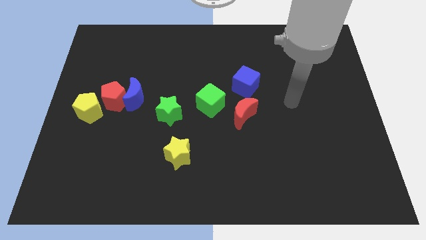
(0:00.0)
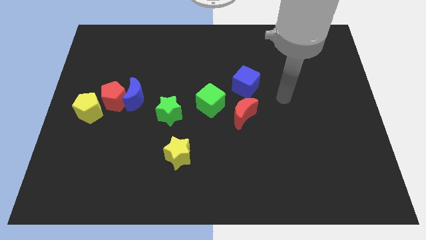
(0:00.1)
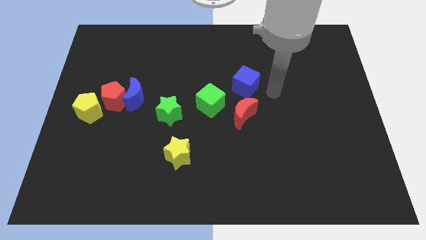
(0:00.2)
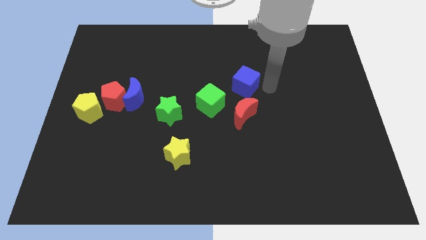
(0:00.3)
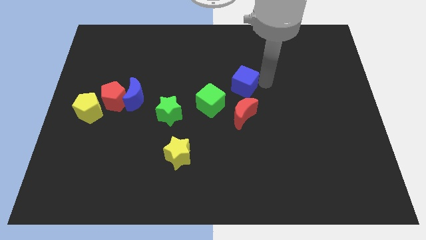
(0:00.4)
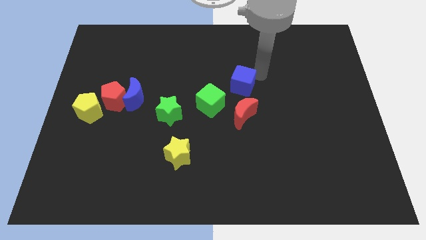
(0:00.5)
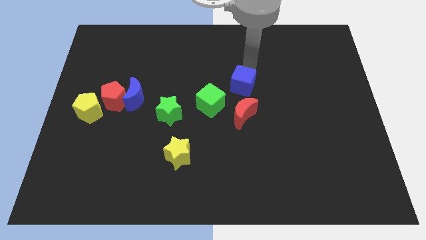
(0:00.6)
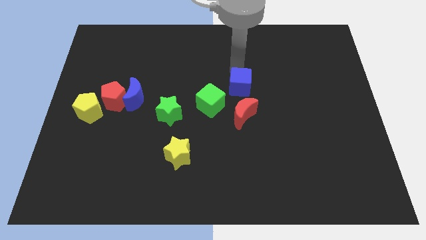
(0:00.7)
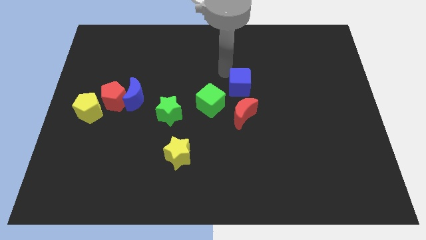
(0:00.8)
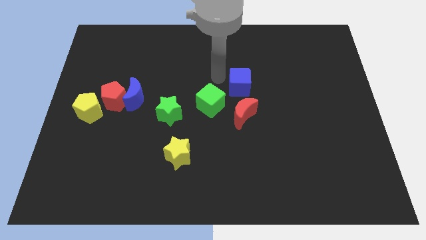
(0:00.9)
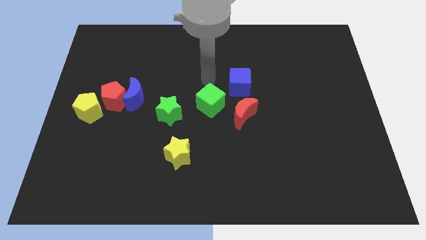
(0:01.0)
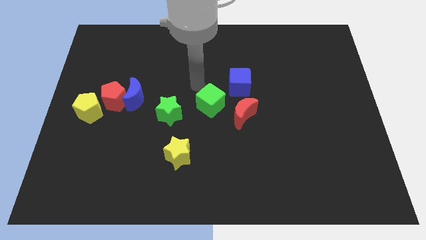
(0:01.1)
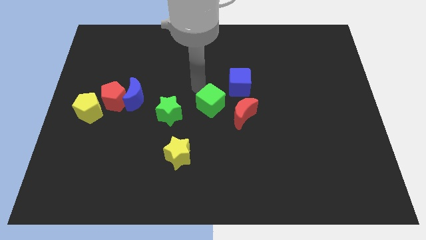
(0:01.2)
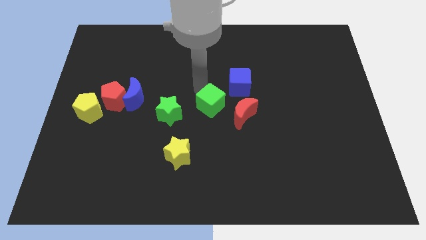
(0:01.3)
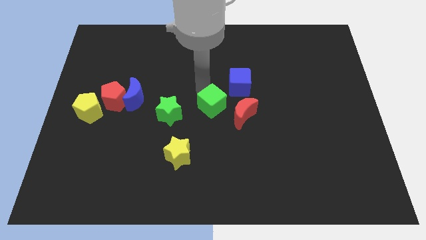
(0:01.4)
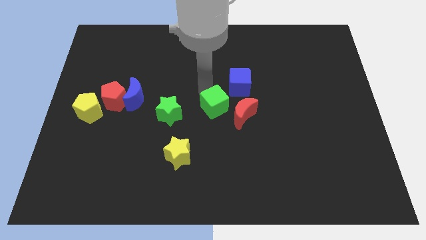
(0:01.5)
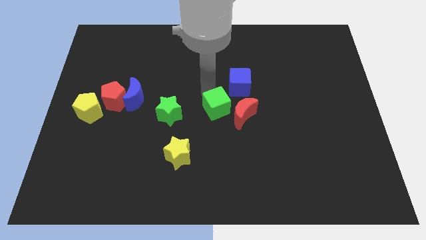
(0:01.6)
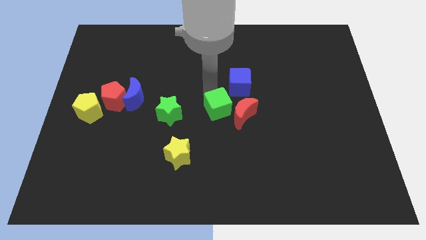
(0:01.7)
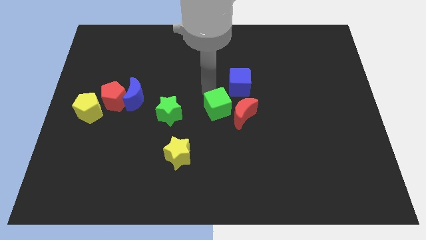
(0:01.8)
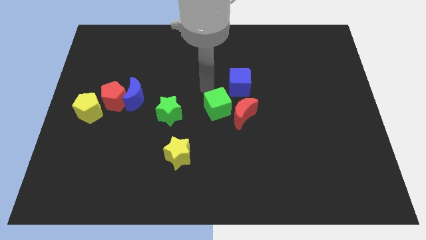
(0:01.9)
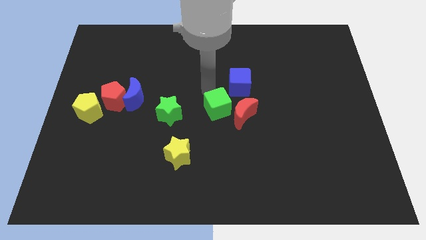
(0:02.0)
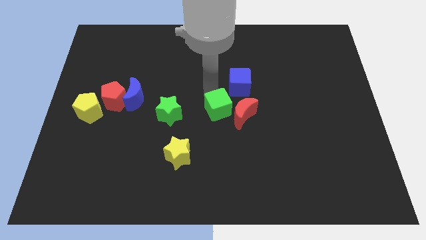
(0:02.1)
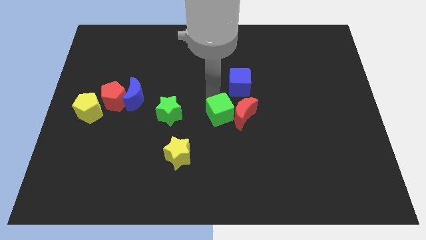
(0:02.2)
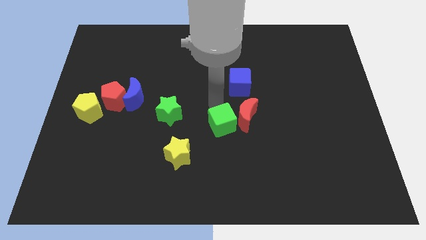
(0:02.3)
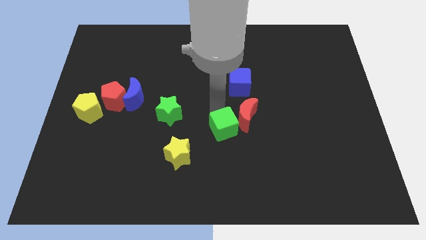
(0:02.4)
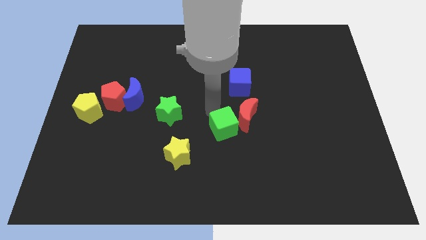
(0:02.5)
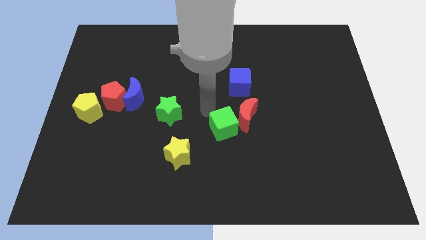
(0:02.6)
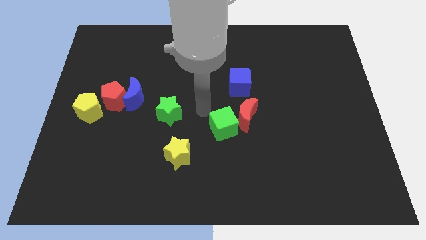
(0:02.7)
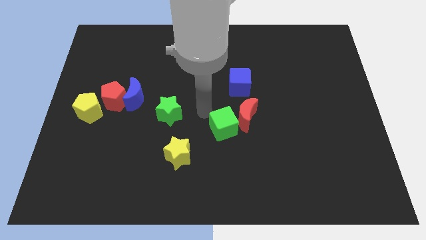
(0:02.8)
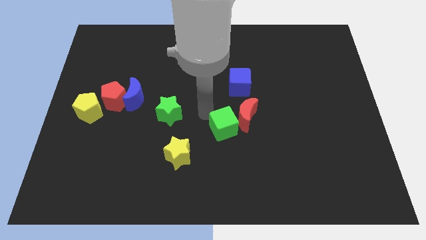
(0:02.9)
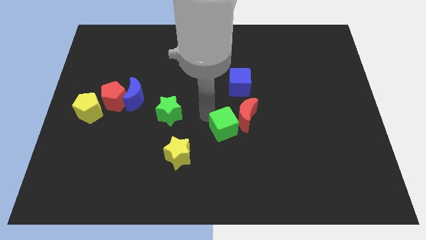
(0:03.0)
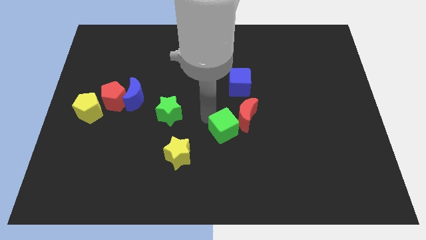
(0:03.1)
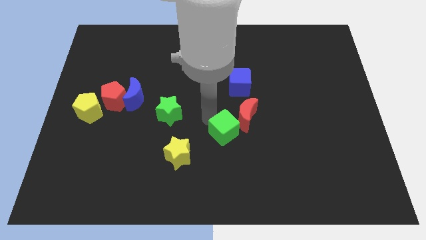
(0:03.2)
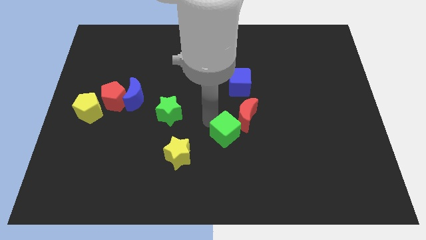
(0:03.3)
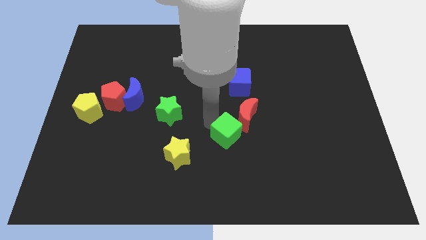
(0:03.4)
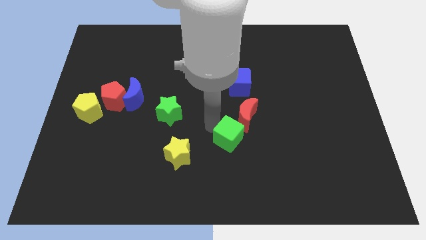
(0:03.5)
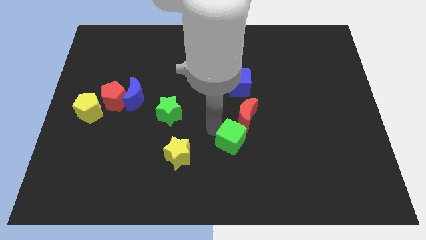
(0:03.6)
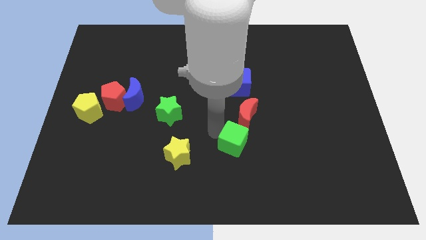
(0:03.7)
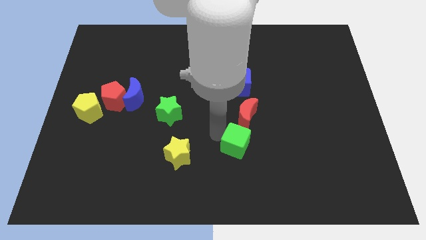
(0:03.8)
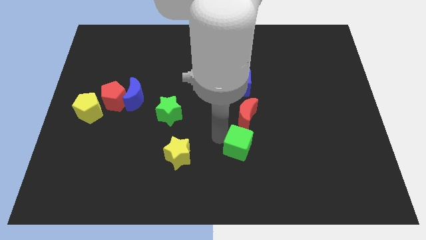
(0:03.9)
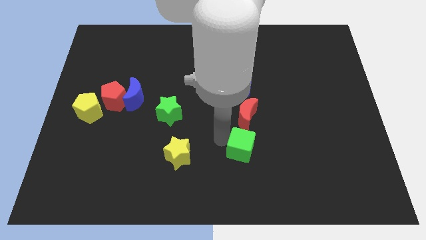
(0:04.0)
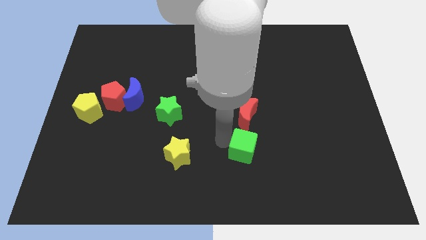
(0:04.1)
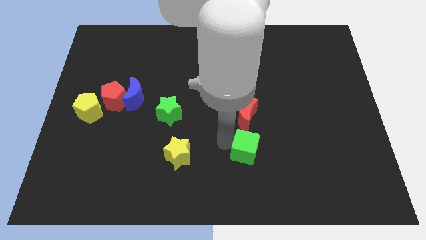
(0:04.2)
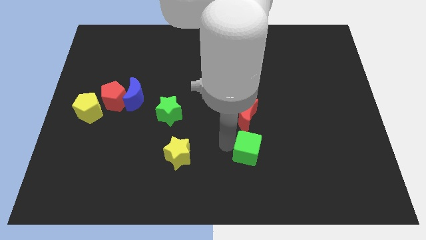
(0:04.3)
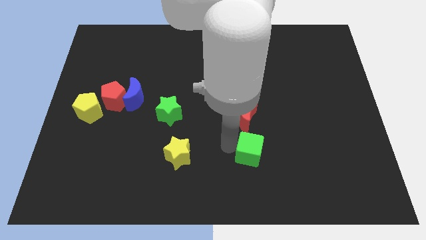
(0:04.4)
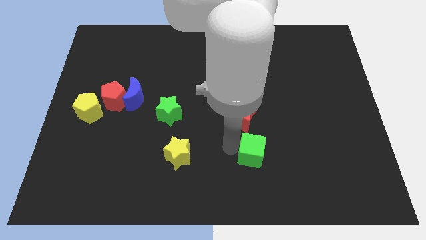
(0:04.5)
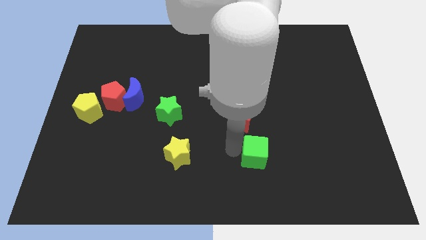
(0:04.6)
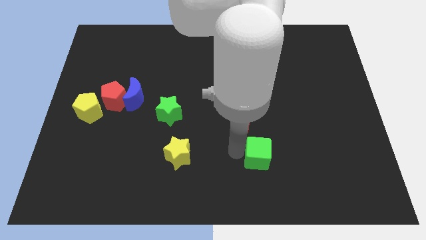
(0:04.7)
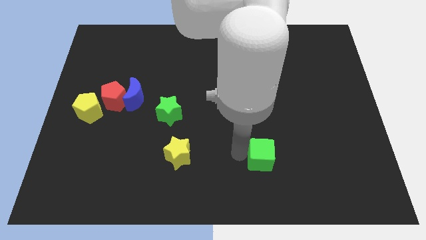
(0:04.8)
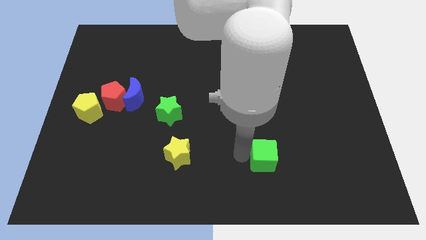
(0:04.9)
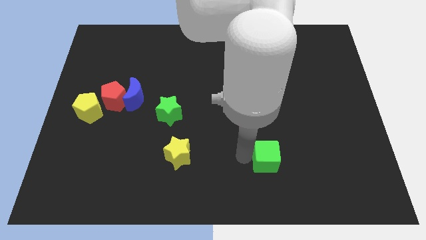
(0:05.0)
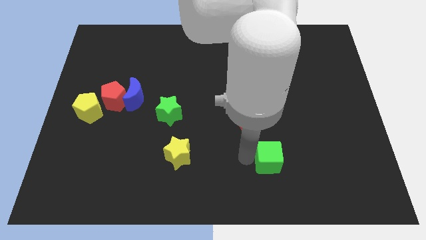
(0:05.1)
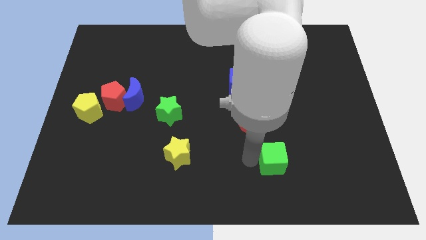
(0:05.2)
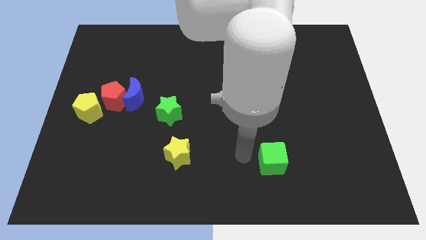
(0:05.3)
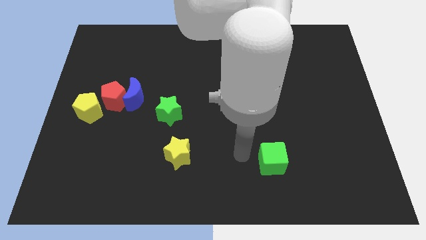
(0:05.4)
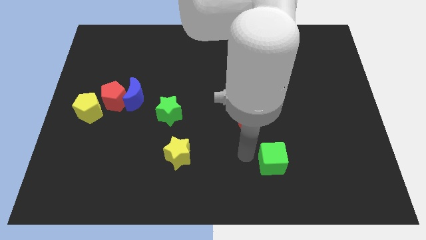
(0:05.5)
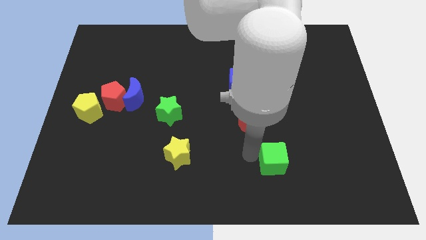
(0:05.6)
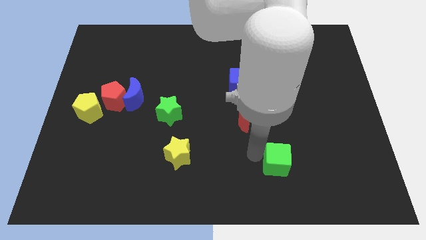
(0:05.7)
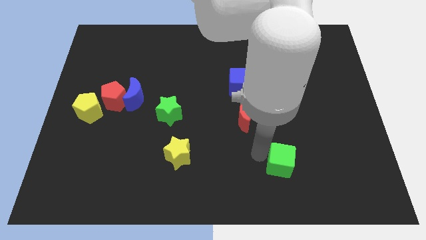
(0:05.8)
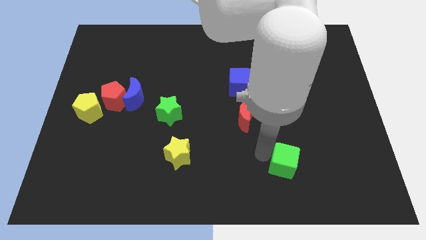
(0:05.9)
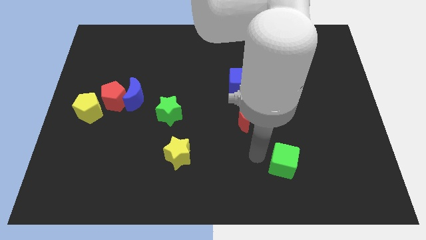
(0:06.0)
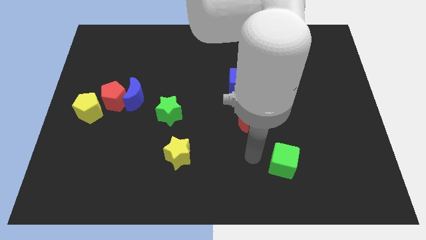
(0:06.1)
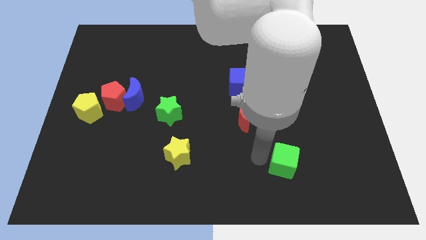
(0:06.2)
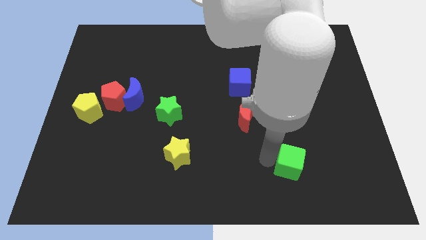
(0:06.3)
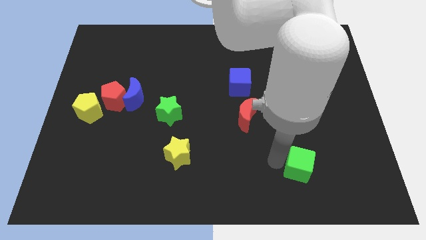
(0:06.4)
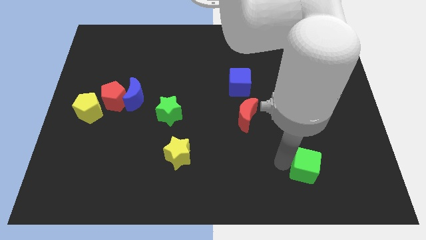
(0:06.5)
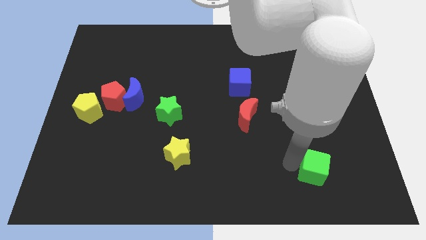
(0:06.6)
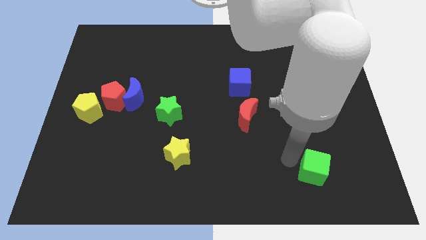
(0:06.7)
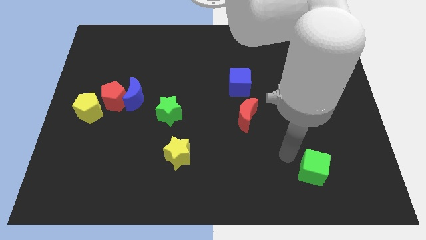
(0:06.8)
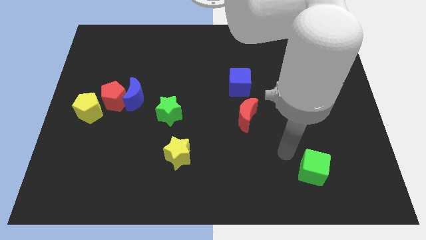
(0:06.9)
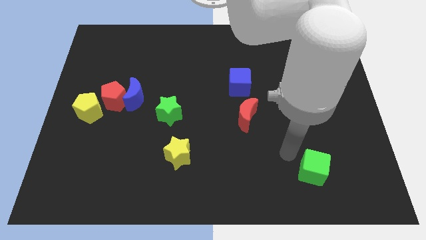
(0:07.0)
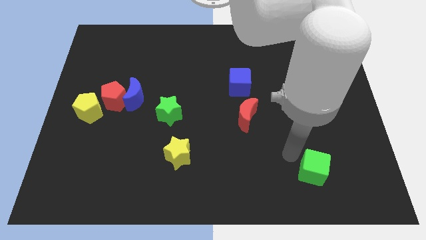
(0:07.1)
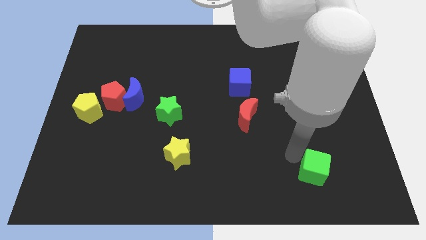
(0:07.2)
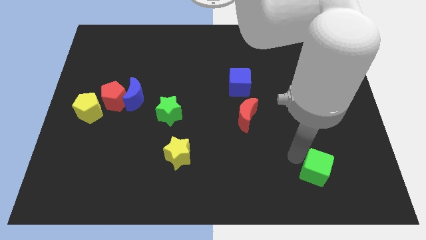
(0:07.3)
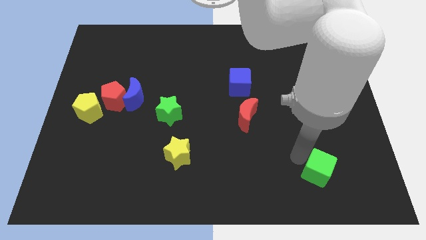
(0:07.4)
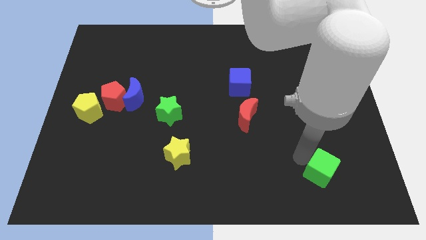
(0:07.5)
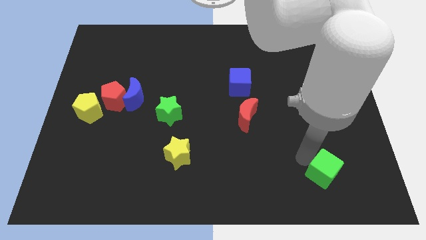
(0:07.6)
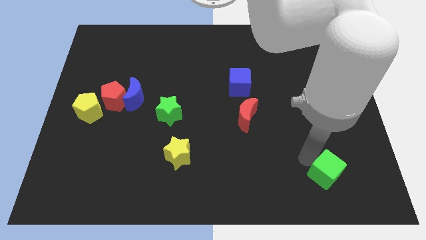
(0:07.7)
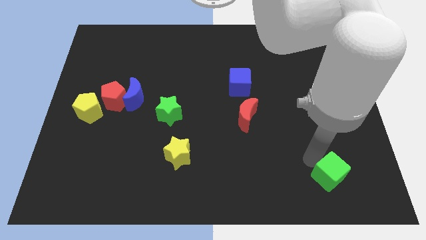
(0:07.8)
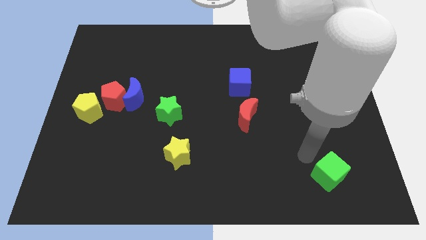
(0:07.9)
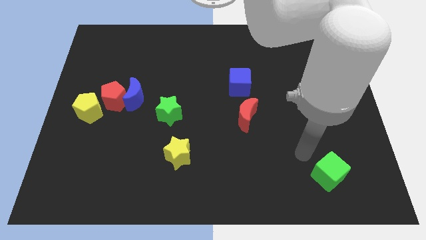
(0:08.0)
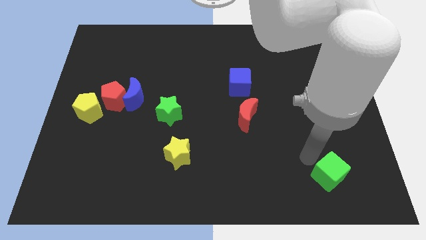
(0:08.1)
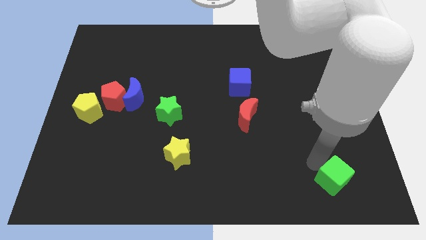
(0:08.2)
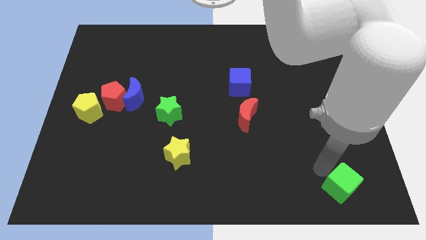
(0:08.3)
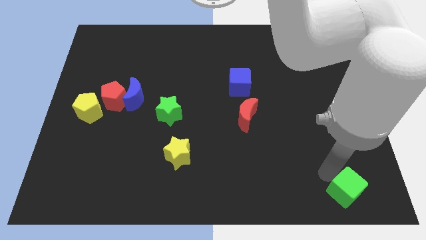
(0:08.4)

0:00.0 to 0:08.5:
push the green cube to the bottom right corner
